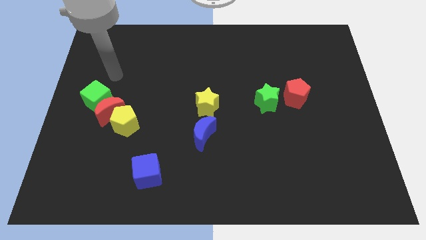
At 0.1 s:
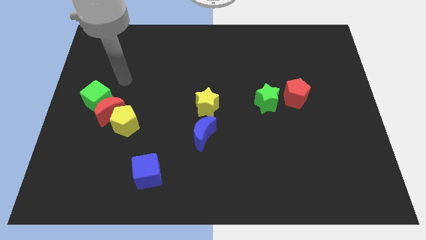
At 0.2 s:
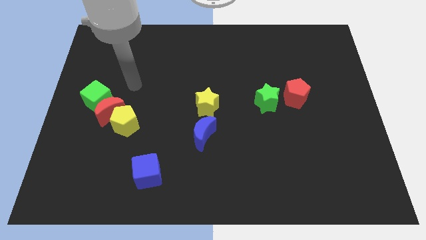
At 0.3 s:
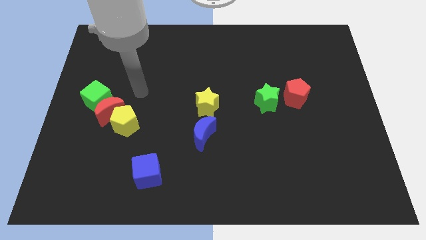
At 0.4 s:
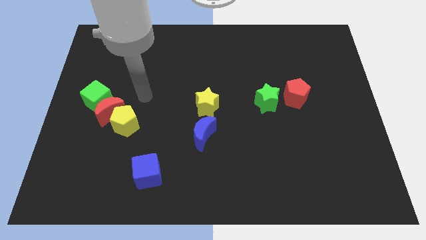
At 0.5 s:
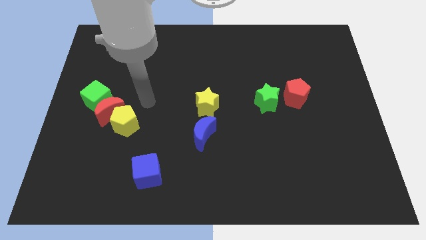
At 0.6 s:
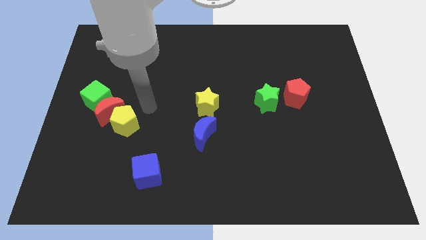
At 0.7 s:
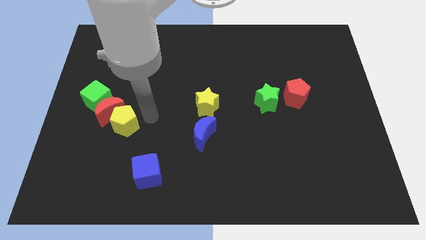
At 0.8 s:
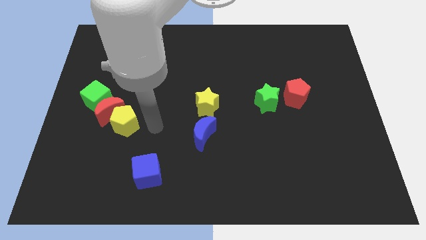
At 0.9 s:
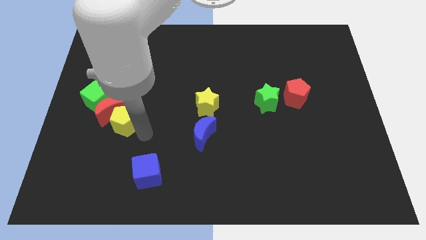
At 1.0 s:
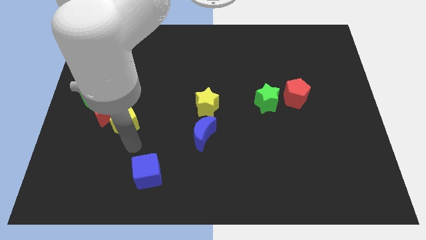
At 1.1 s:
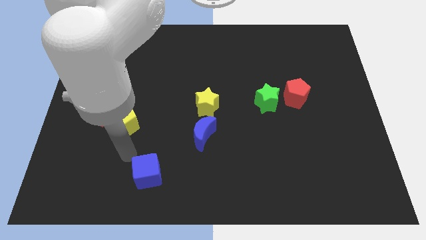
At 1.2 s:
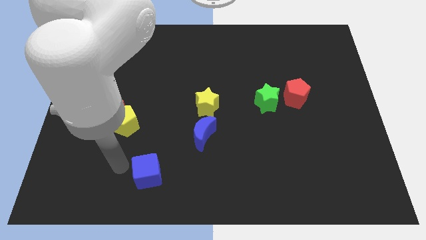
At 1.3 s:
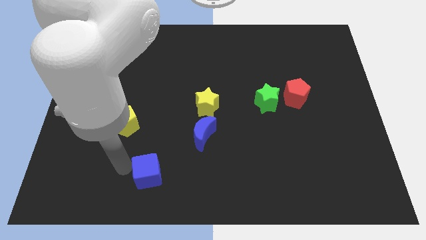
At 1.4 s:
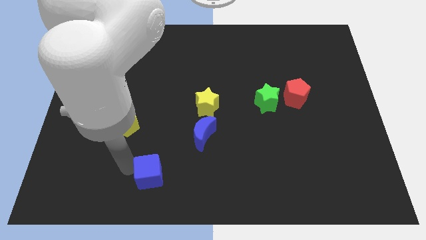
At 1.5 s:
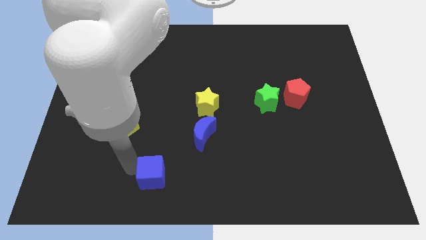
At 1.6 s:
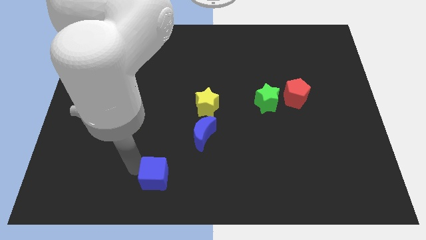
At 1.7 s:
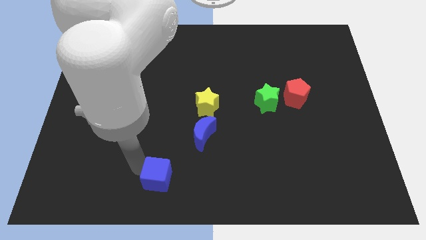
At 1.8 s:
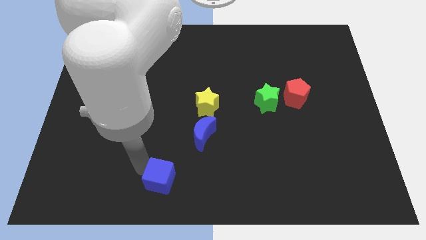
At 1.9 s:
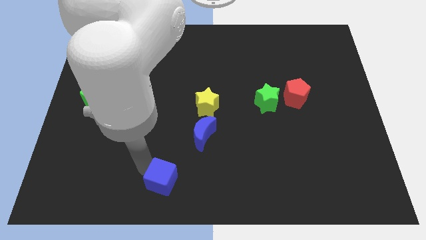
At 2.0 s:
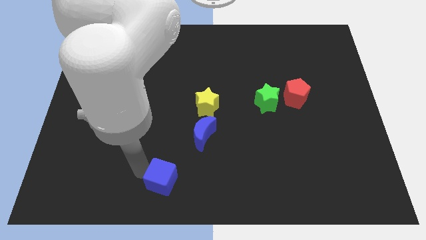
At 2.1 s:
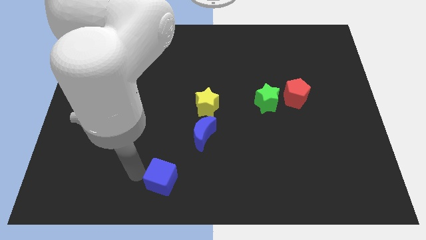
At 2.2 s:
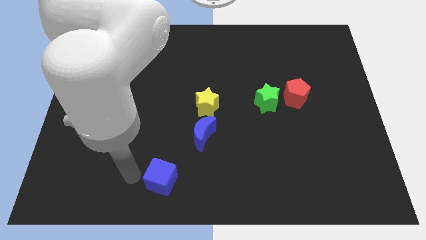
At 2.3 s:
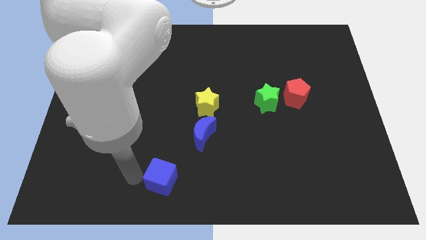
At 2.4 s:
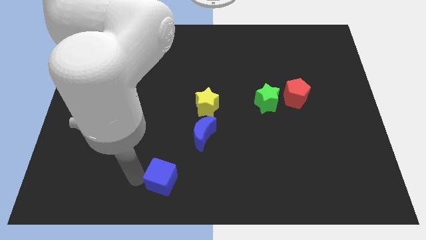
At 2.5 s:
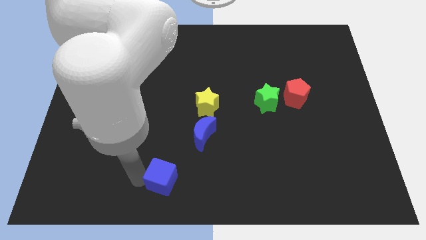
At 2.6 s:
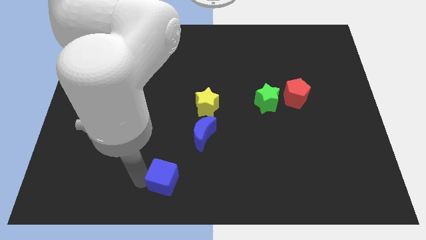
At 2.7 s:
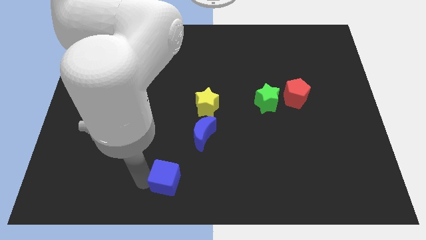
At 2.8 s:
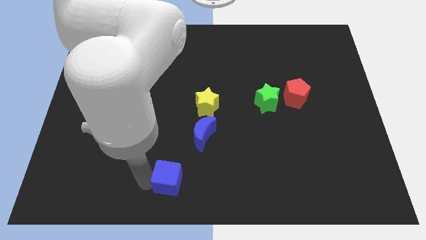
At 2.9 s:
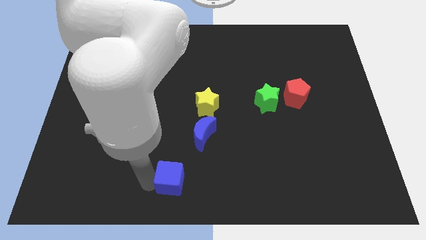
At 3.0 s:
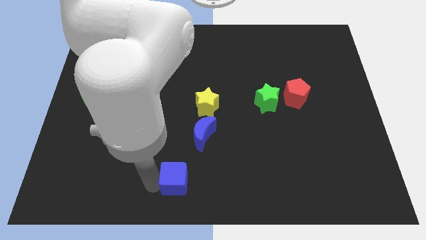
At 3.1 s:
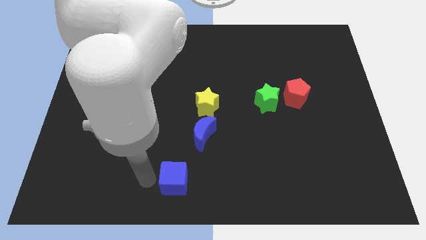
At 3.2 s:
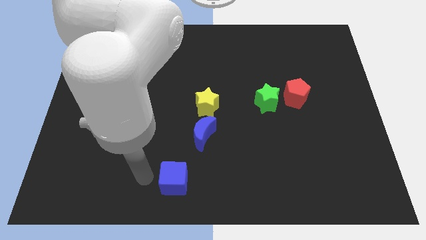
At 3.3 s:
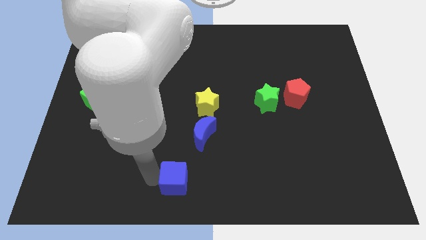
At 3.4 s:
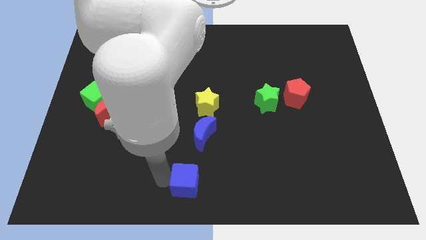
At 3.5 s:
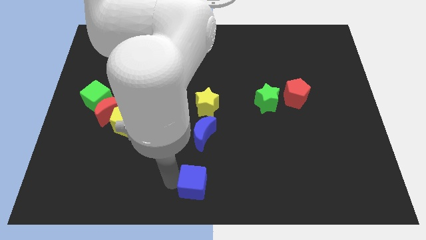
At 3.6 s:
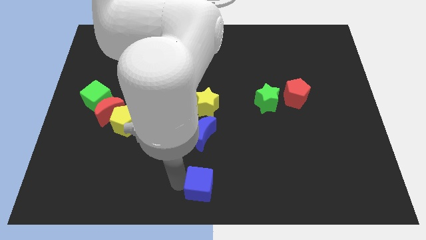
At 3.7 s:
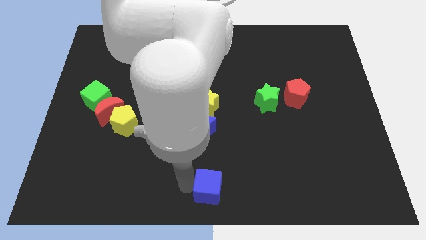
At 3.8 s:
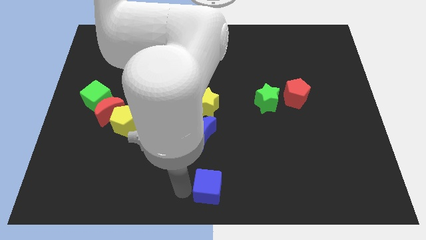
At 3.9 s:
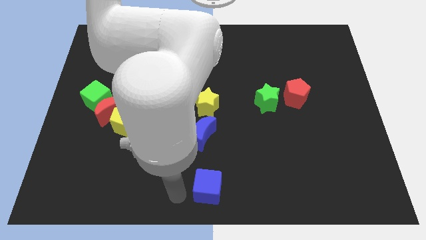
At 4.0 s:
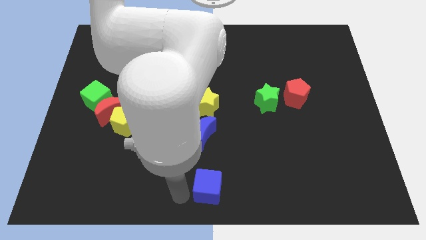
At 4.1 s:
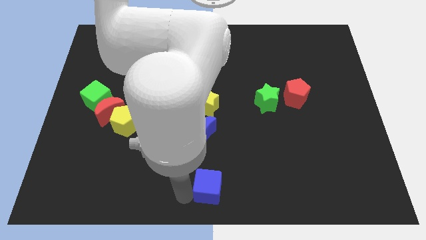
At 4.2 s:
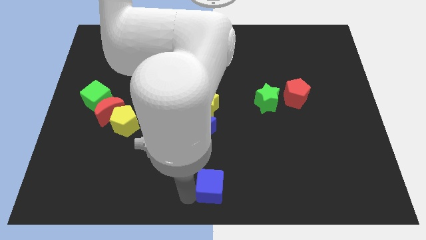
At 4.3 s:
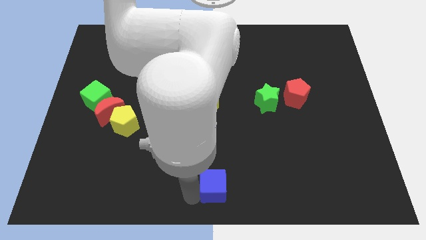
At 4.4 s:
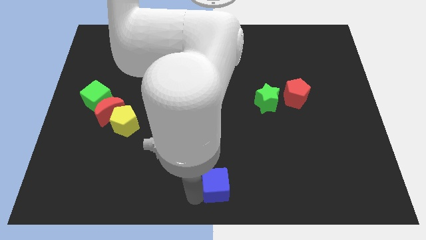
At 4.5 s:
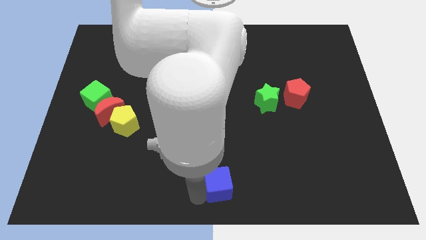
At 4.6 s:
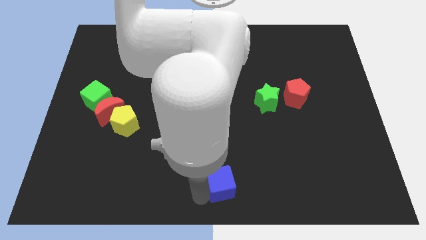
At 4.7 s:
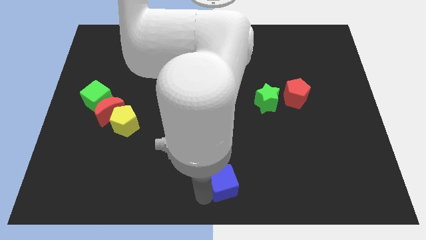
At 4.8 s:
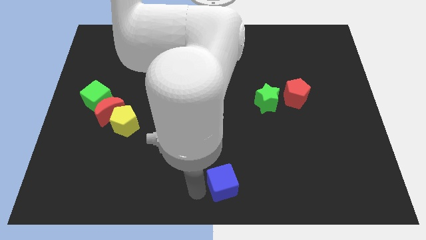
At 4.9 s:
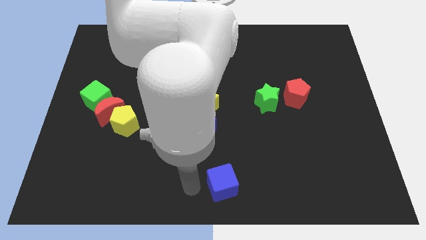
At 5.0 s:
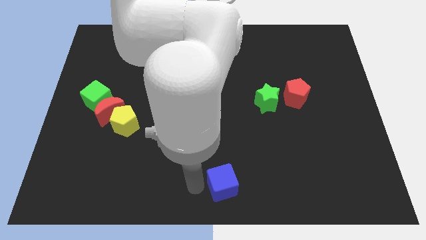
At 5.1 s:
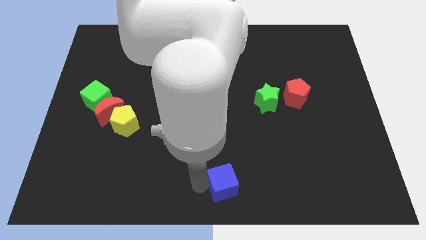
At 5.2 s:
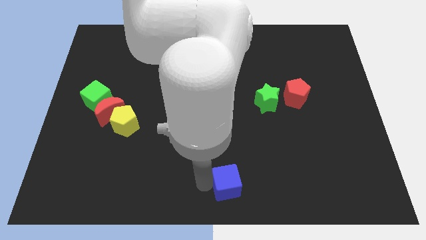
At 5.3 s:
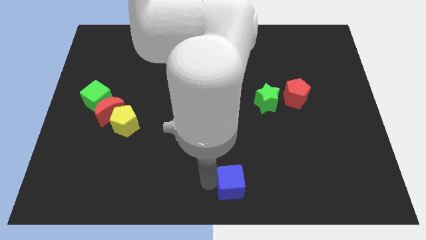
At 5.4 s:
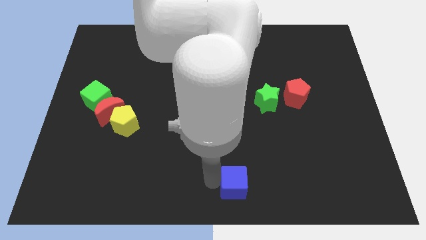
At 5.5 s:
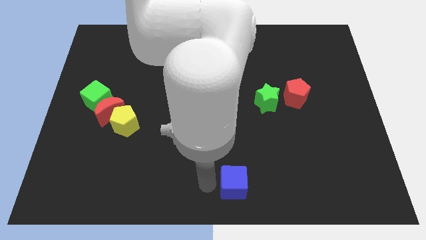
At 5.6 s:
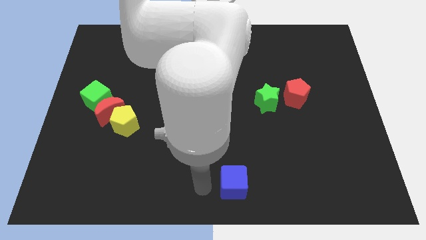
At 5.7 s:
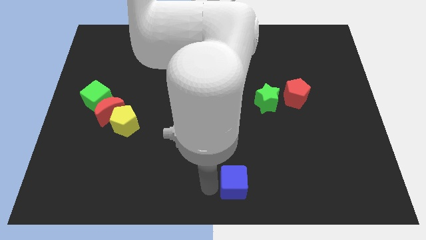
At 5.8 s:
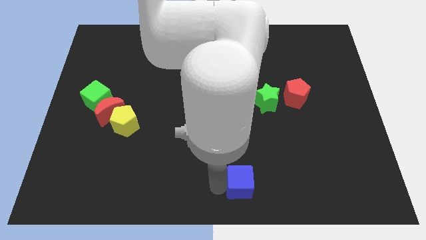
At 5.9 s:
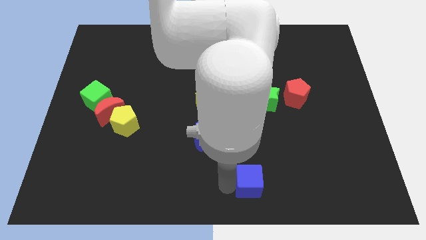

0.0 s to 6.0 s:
move the blue cube right

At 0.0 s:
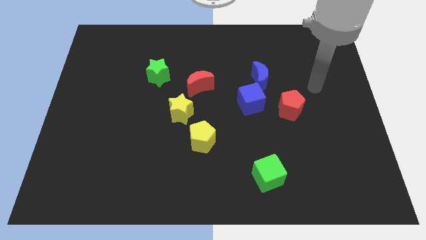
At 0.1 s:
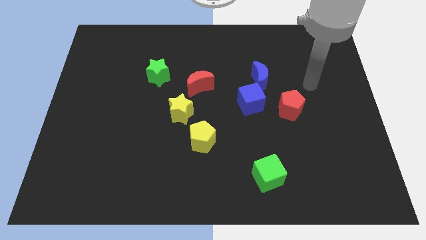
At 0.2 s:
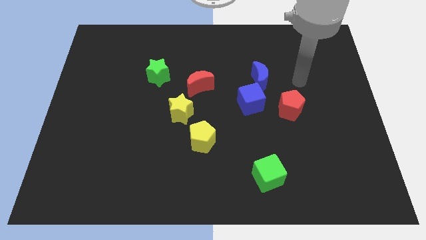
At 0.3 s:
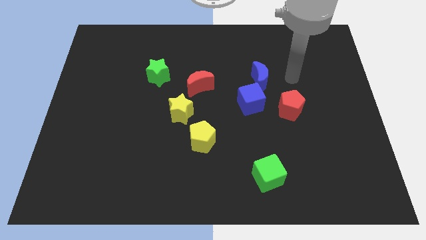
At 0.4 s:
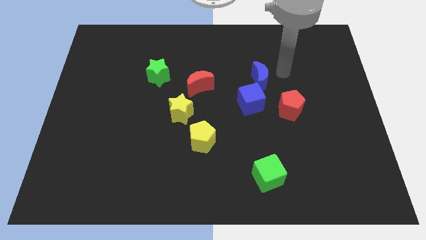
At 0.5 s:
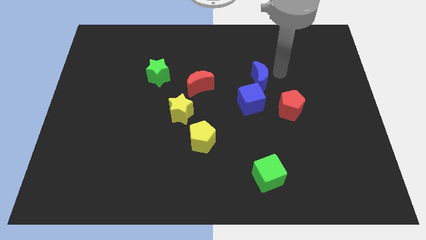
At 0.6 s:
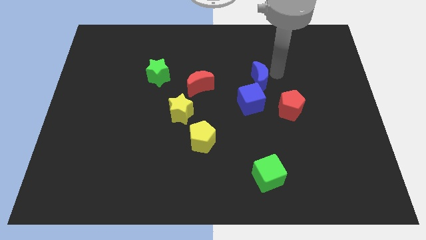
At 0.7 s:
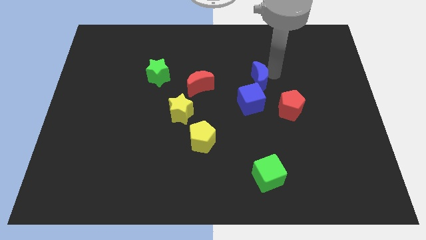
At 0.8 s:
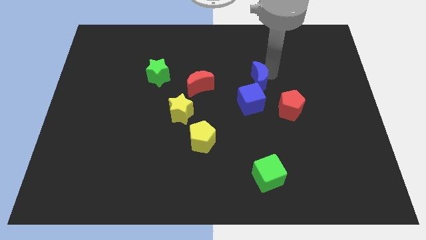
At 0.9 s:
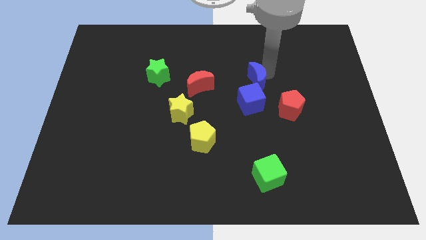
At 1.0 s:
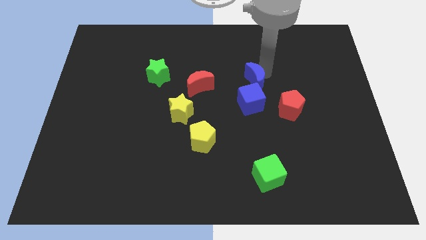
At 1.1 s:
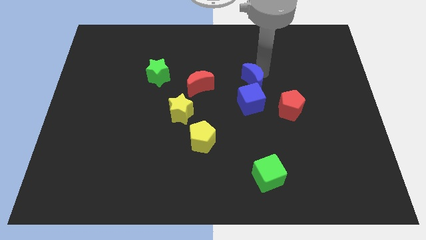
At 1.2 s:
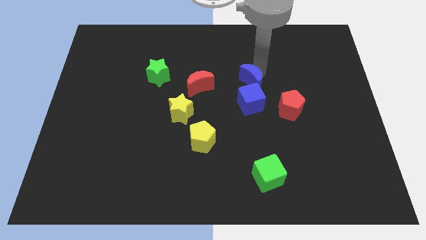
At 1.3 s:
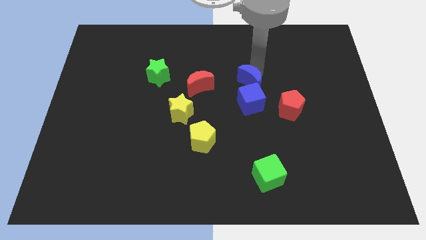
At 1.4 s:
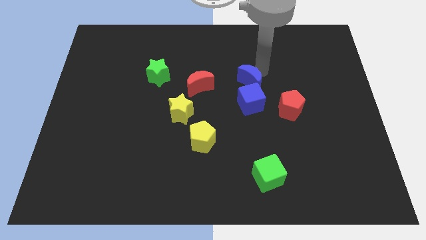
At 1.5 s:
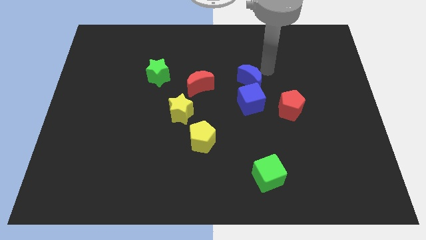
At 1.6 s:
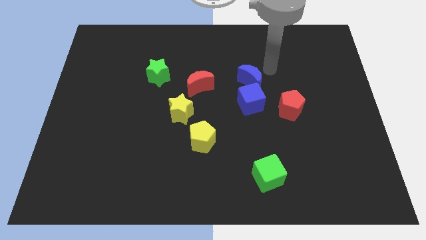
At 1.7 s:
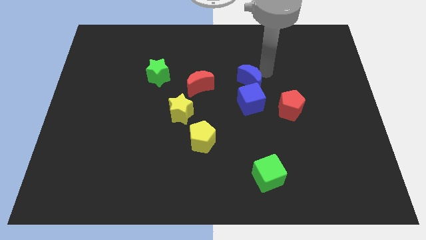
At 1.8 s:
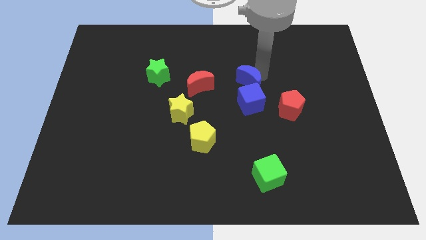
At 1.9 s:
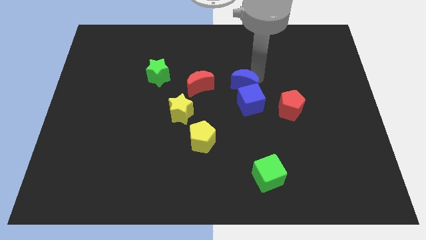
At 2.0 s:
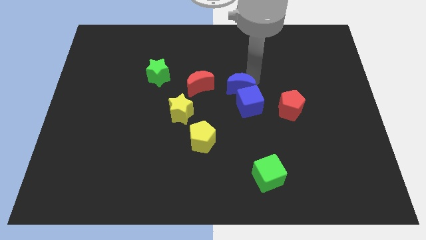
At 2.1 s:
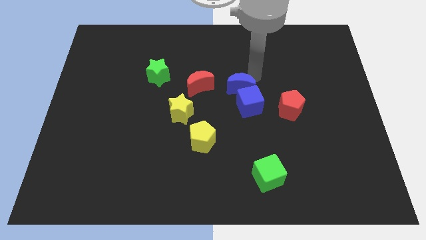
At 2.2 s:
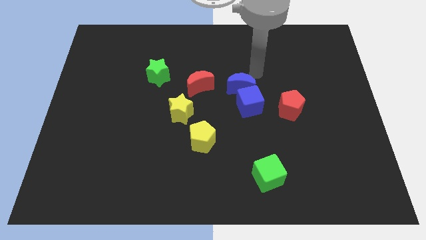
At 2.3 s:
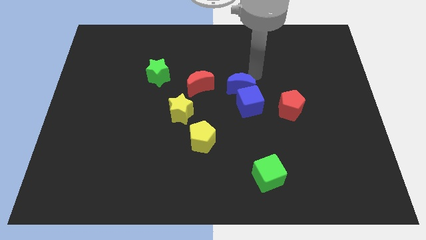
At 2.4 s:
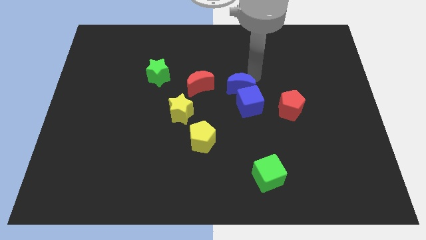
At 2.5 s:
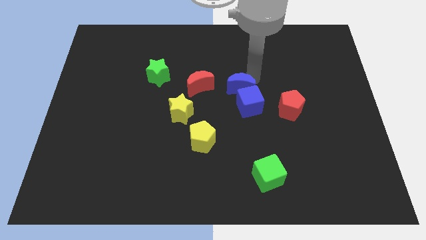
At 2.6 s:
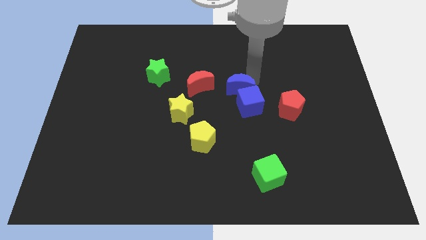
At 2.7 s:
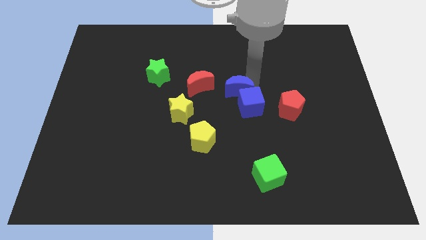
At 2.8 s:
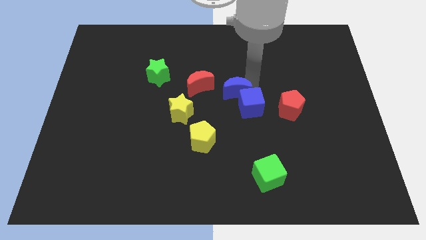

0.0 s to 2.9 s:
slightly slide the blue moon downwards and to the left diagonally
